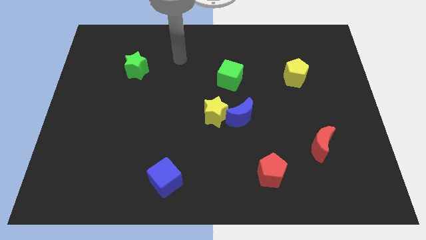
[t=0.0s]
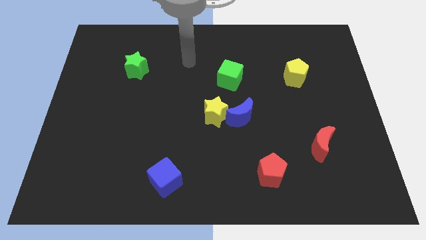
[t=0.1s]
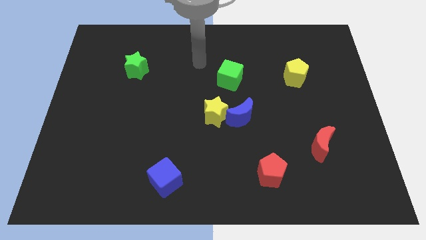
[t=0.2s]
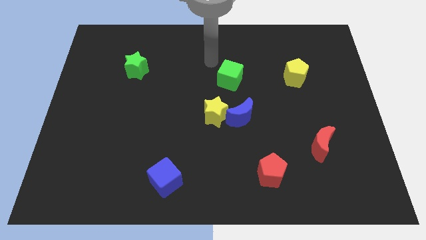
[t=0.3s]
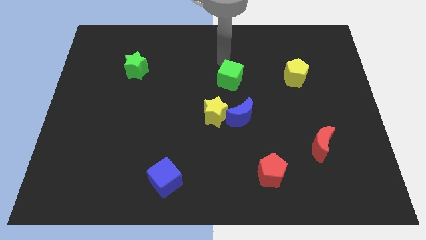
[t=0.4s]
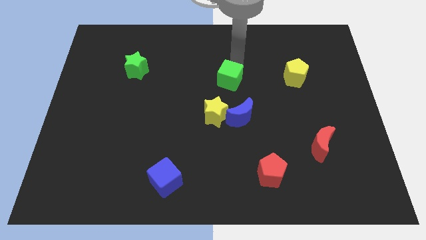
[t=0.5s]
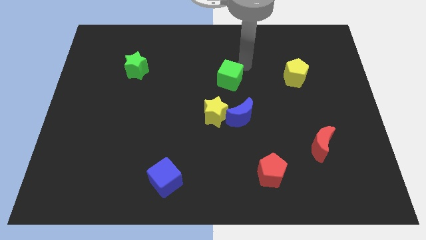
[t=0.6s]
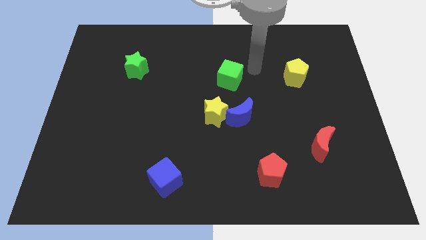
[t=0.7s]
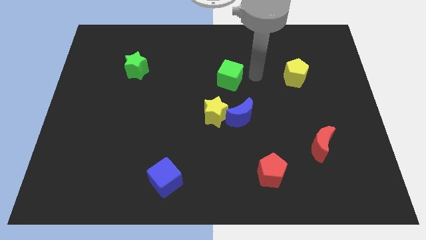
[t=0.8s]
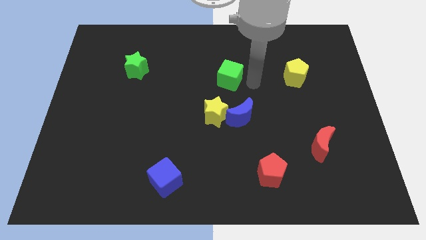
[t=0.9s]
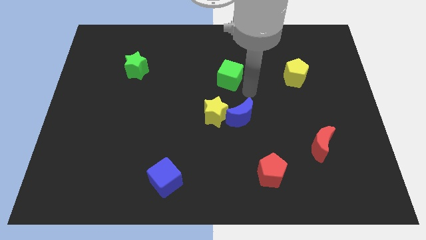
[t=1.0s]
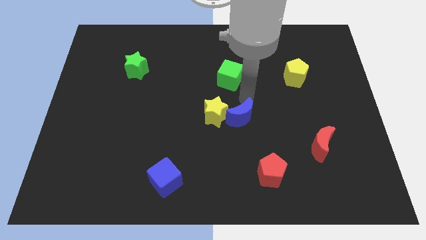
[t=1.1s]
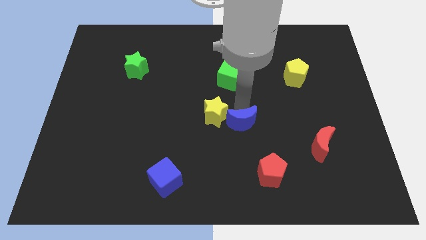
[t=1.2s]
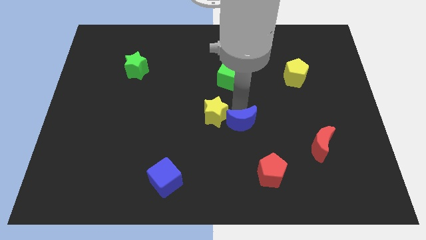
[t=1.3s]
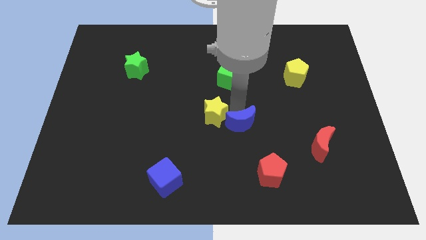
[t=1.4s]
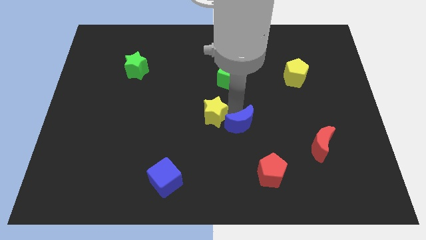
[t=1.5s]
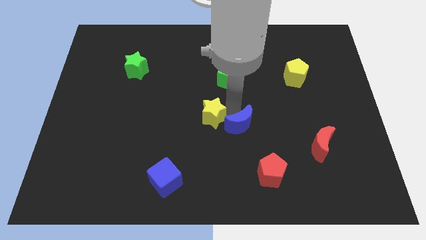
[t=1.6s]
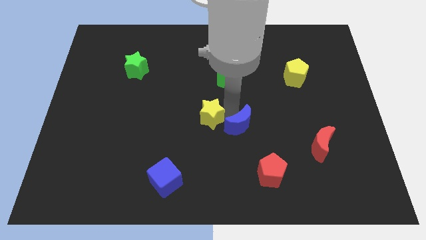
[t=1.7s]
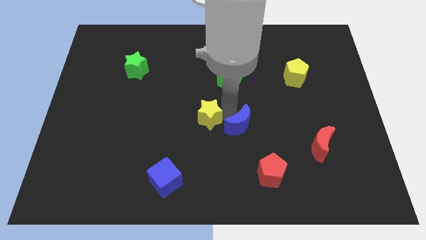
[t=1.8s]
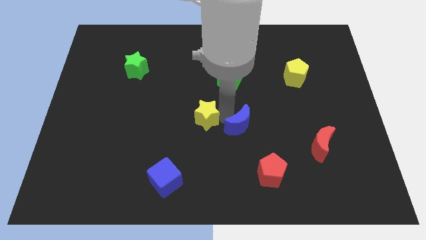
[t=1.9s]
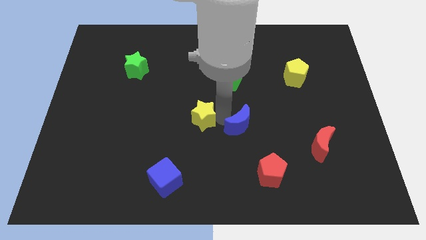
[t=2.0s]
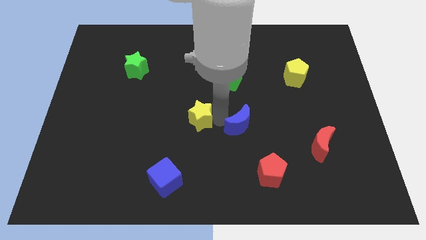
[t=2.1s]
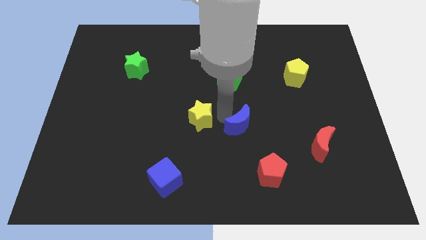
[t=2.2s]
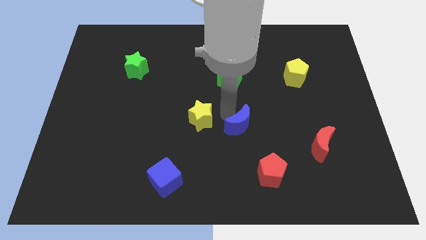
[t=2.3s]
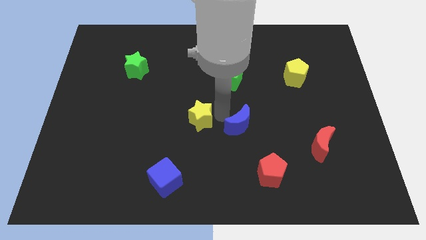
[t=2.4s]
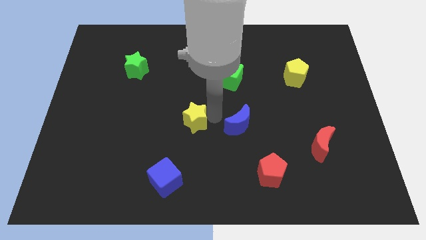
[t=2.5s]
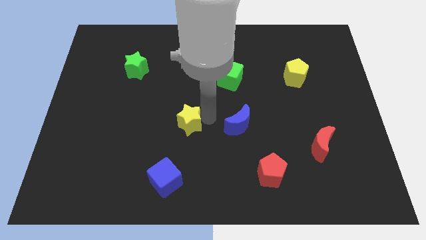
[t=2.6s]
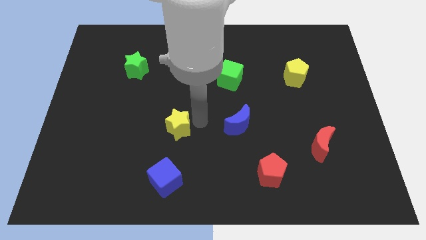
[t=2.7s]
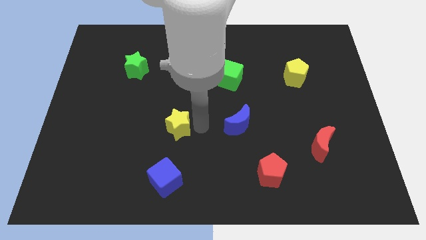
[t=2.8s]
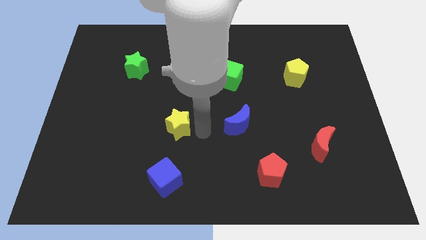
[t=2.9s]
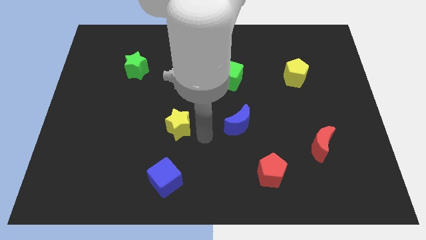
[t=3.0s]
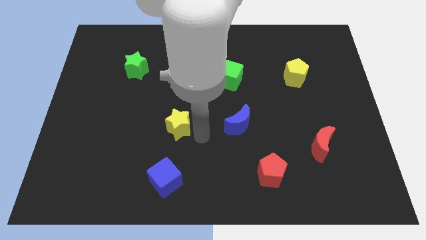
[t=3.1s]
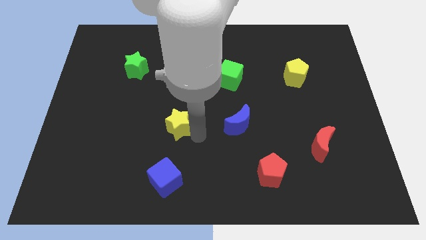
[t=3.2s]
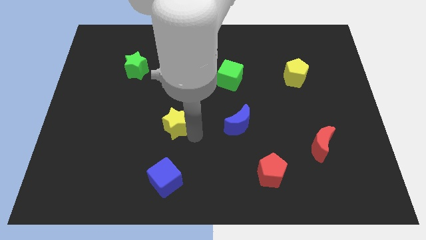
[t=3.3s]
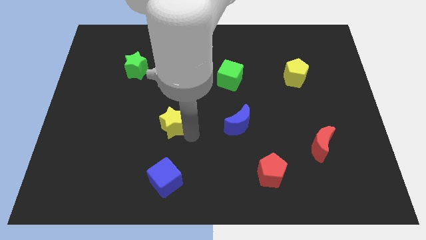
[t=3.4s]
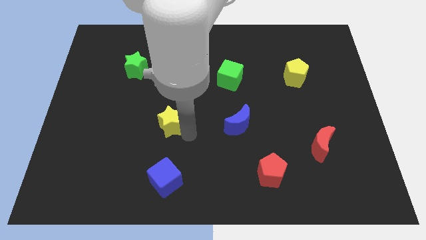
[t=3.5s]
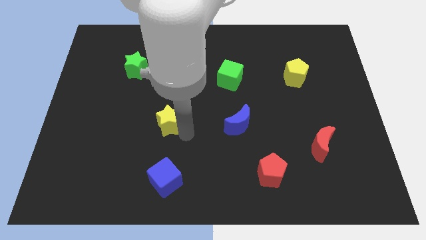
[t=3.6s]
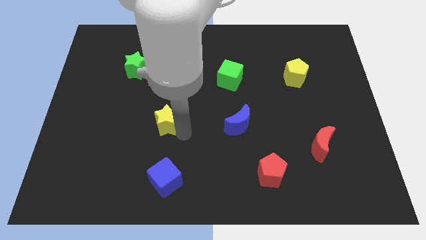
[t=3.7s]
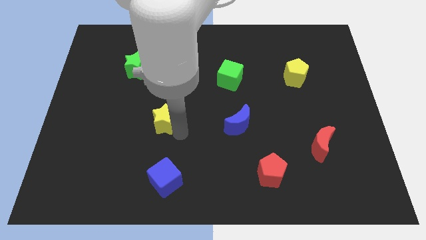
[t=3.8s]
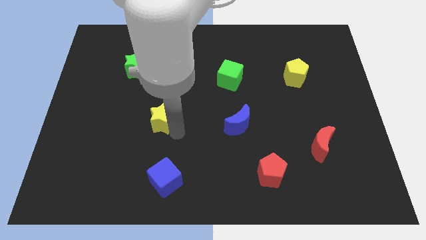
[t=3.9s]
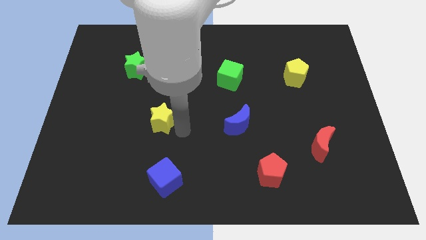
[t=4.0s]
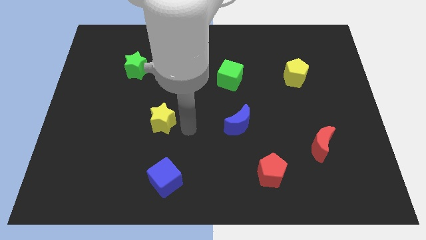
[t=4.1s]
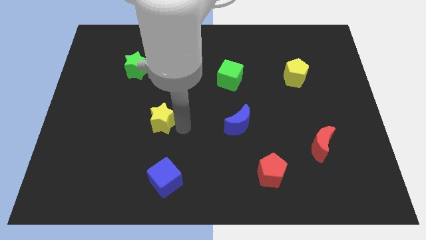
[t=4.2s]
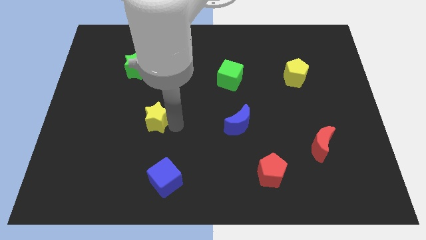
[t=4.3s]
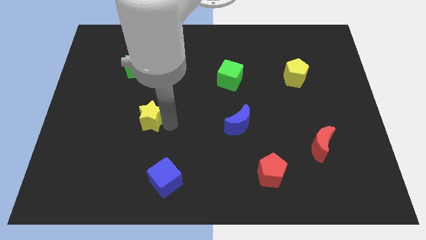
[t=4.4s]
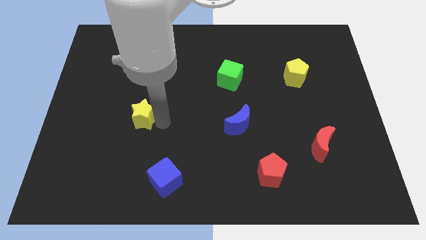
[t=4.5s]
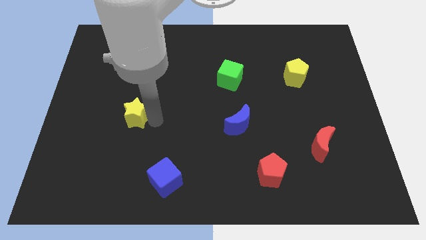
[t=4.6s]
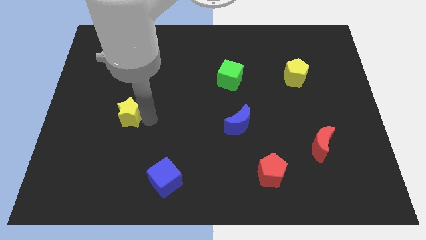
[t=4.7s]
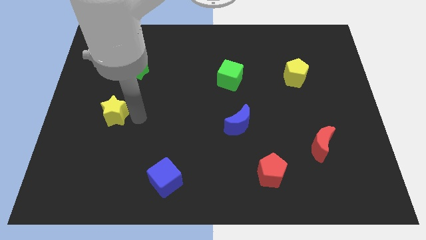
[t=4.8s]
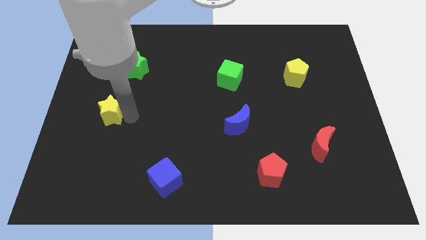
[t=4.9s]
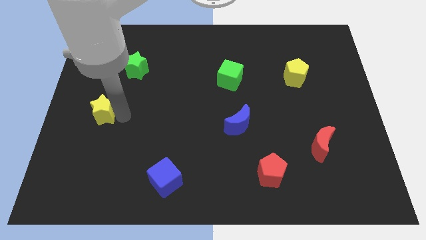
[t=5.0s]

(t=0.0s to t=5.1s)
move the yellow star to the center left

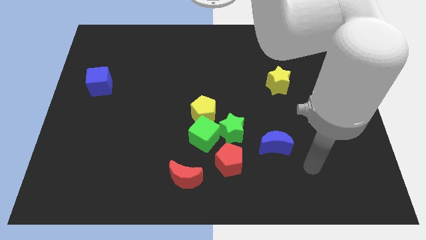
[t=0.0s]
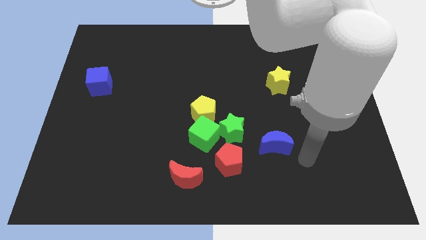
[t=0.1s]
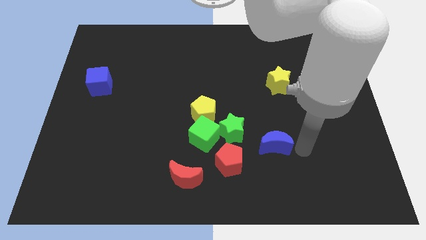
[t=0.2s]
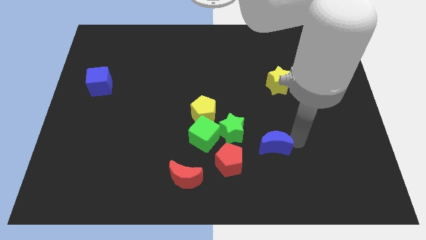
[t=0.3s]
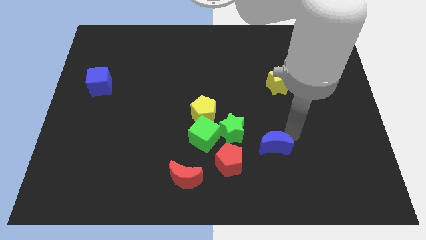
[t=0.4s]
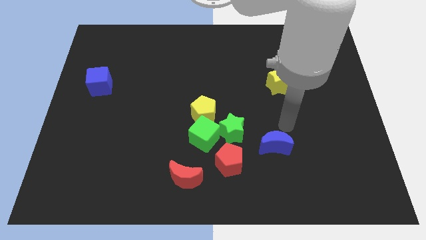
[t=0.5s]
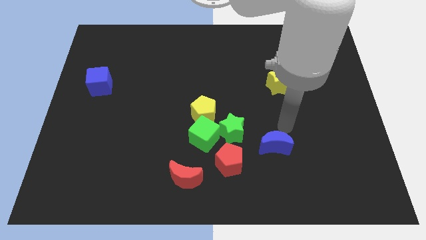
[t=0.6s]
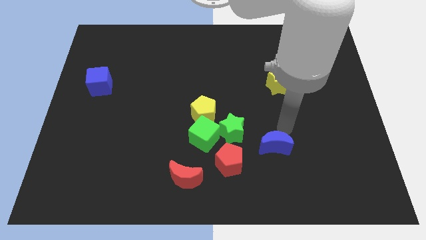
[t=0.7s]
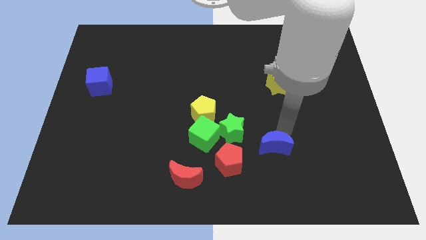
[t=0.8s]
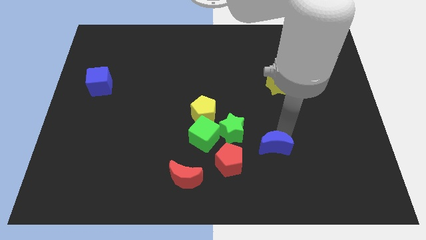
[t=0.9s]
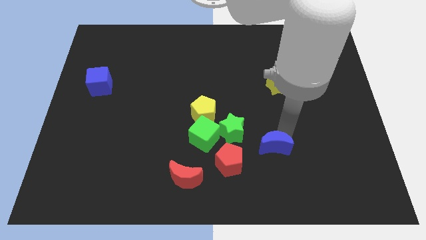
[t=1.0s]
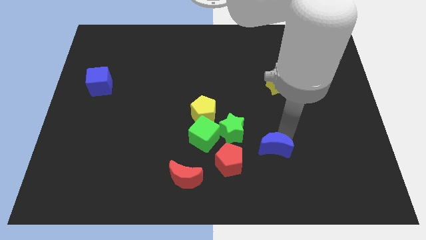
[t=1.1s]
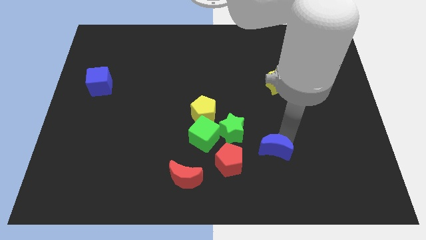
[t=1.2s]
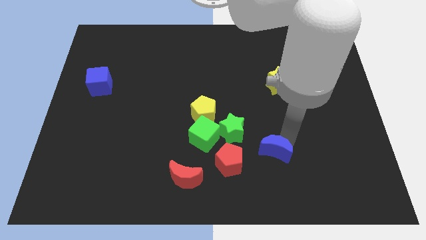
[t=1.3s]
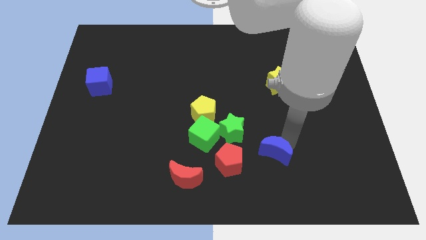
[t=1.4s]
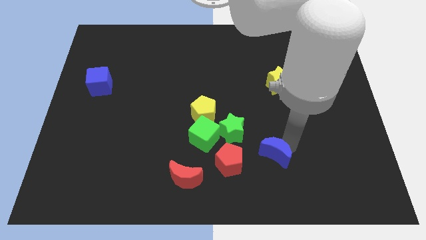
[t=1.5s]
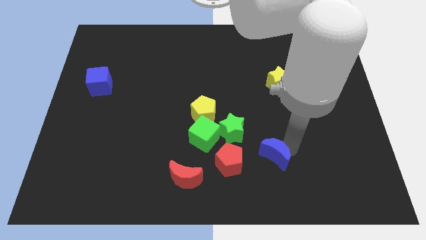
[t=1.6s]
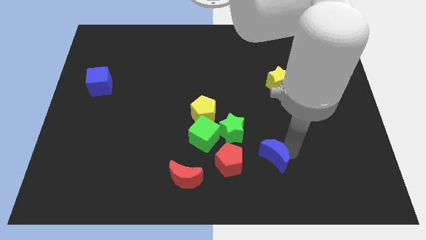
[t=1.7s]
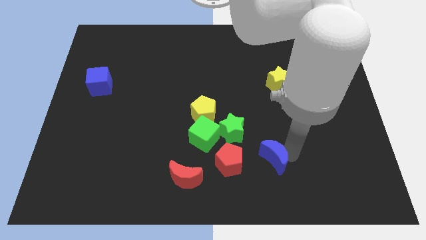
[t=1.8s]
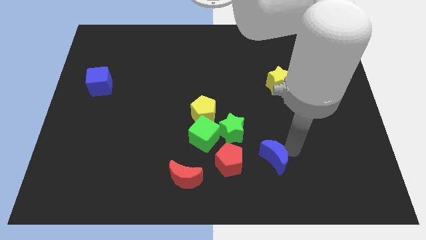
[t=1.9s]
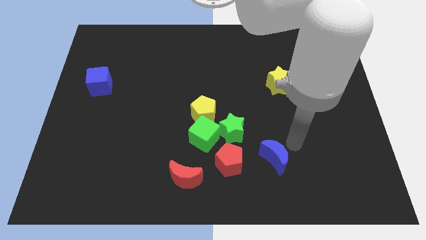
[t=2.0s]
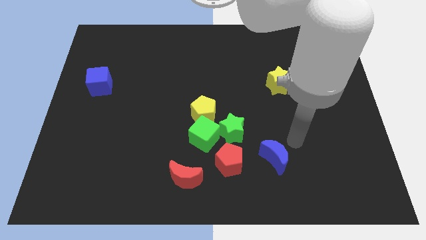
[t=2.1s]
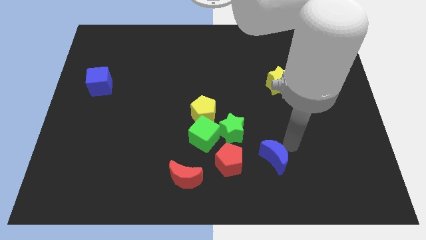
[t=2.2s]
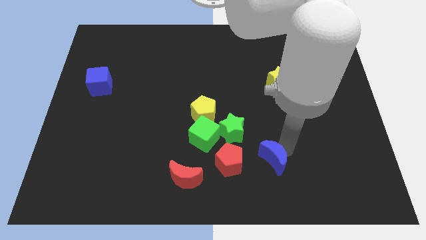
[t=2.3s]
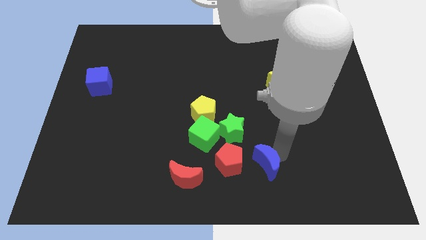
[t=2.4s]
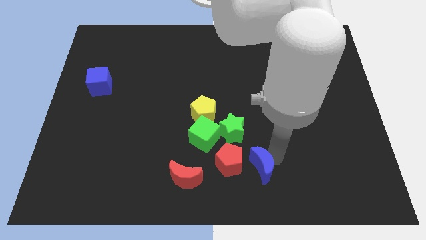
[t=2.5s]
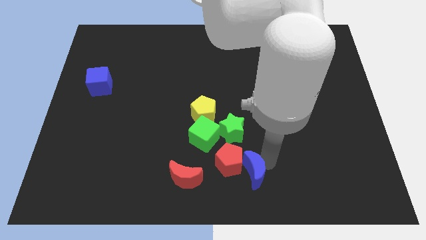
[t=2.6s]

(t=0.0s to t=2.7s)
slide the blue moon to the bottom side

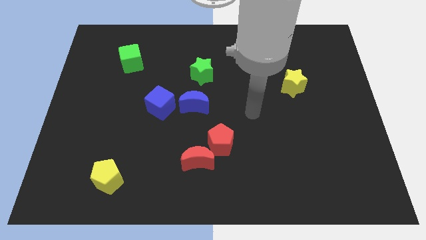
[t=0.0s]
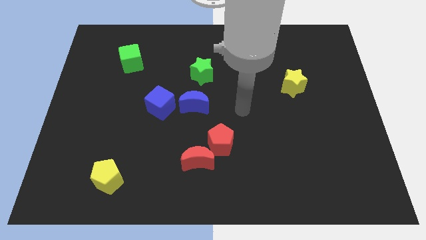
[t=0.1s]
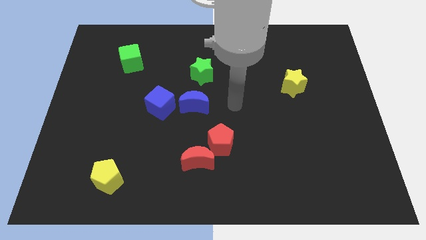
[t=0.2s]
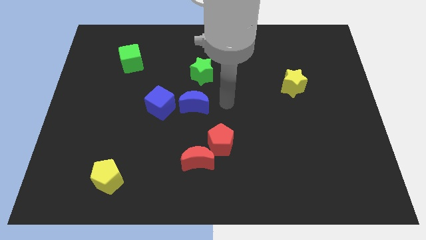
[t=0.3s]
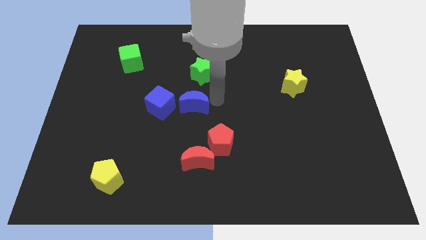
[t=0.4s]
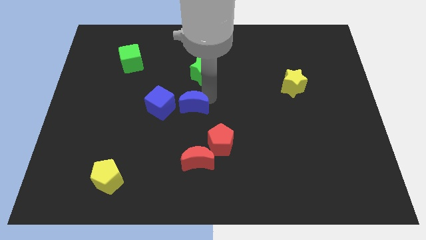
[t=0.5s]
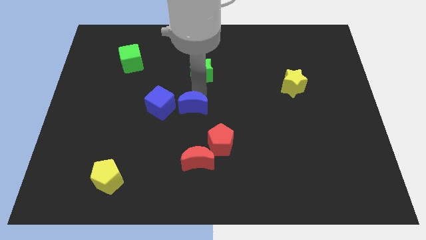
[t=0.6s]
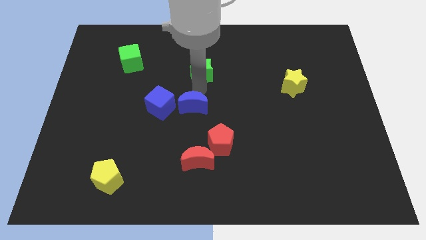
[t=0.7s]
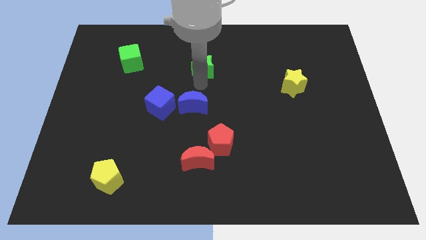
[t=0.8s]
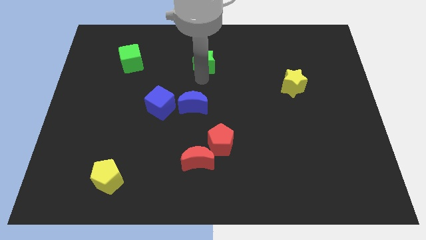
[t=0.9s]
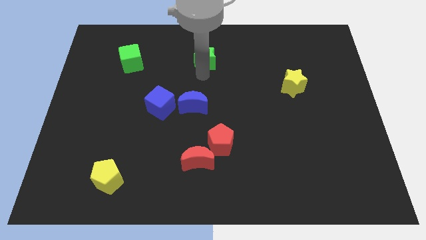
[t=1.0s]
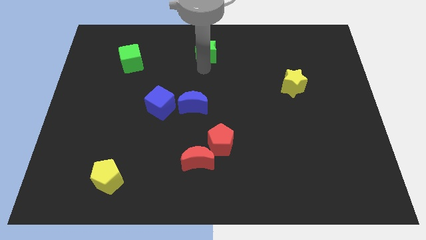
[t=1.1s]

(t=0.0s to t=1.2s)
put the green star to the top
